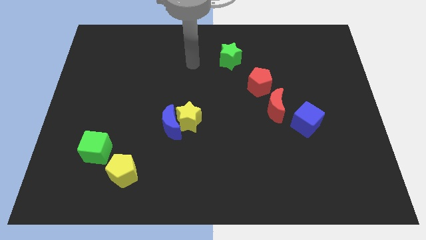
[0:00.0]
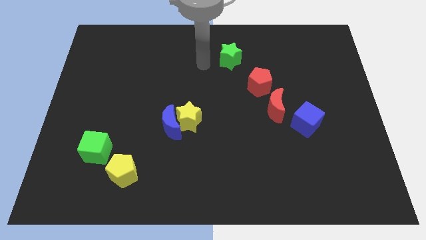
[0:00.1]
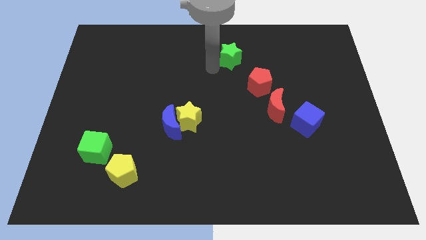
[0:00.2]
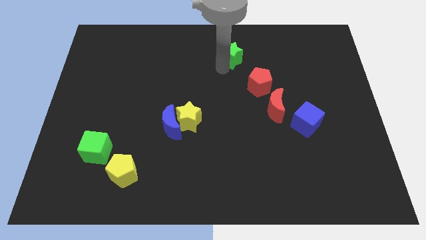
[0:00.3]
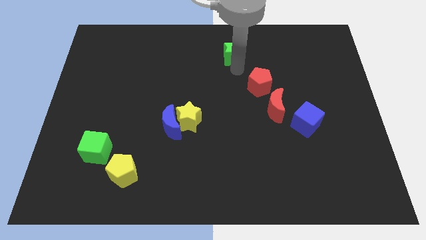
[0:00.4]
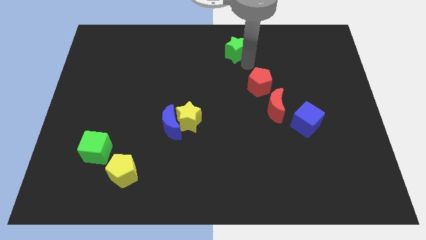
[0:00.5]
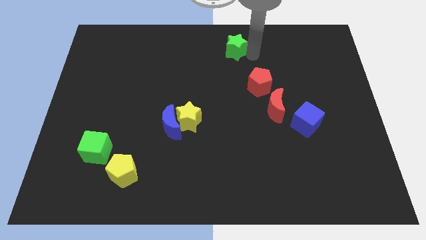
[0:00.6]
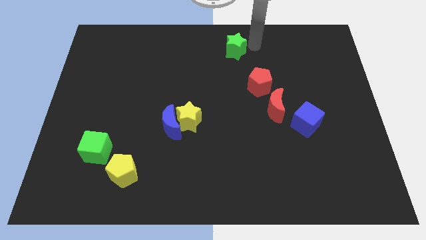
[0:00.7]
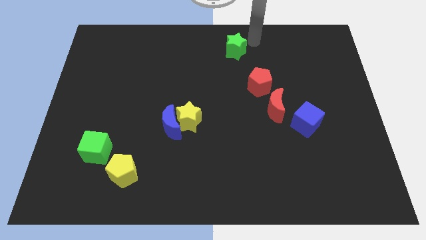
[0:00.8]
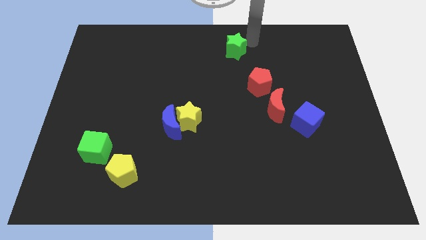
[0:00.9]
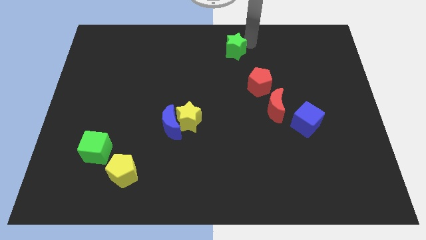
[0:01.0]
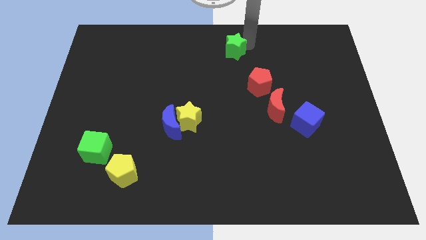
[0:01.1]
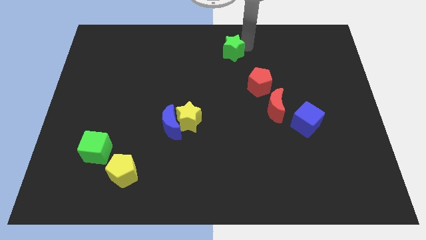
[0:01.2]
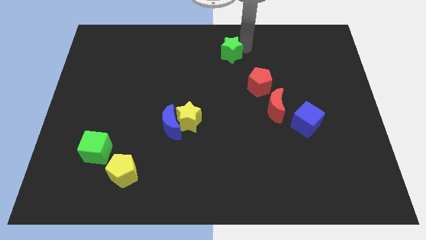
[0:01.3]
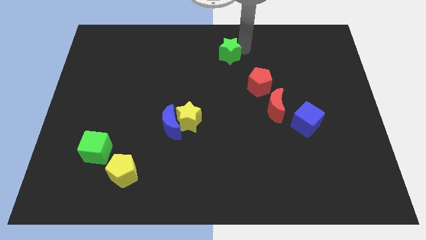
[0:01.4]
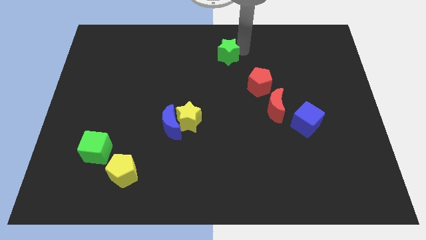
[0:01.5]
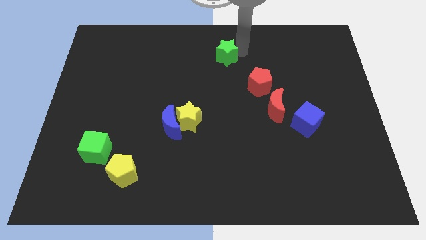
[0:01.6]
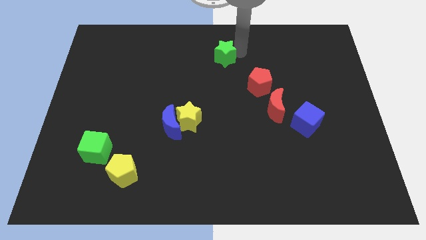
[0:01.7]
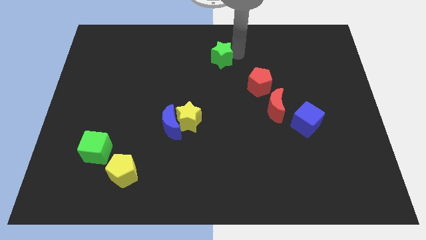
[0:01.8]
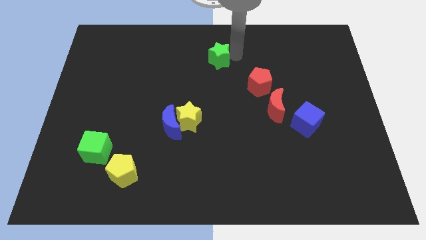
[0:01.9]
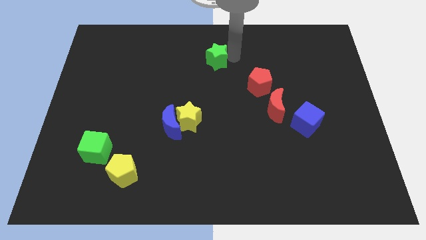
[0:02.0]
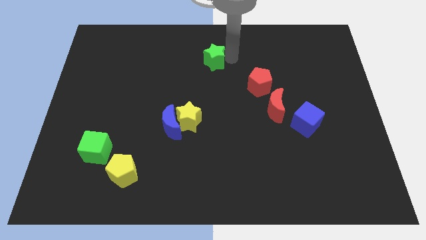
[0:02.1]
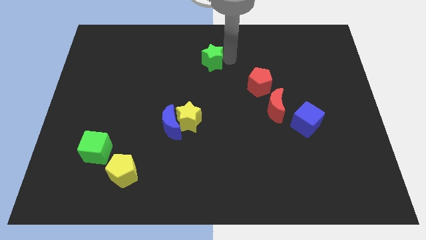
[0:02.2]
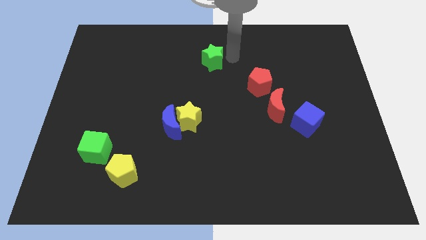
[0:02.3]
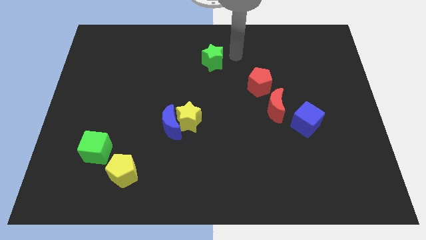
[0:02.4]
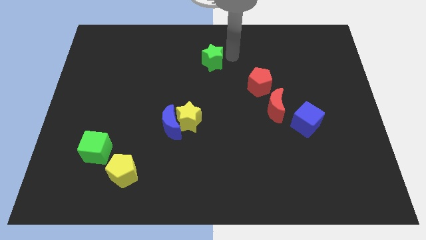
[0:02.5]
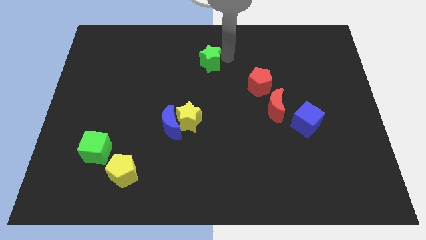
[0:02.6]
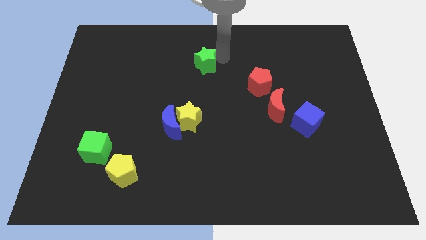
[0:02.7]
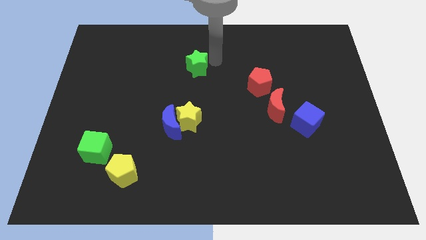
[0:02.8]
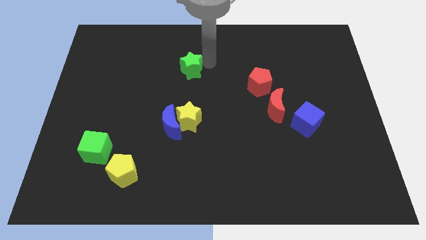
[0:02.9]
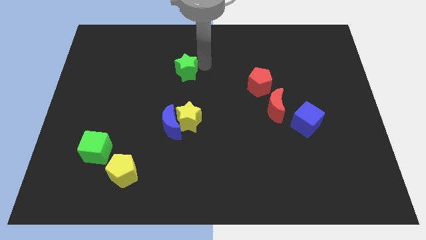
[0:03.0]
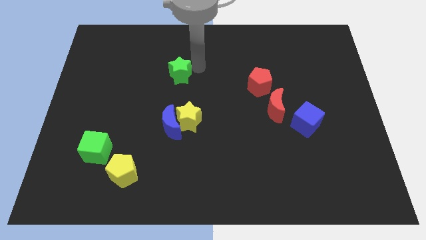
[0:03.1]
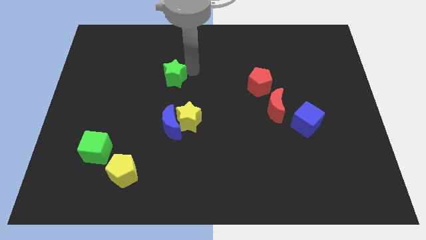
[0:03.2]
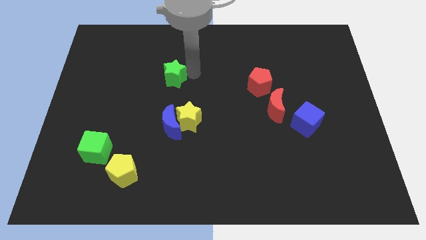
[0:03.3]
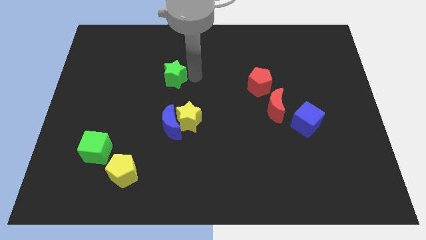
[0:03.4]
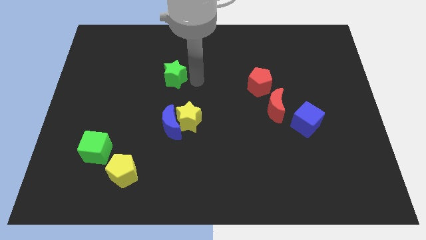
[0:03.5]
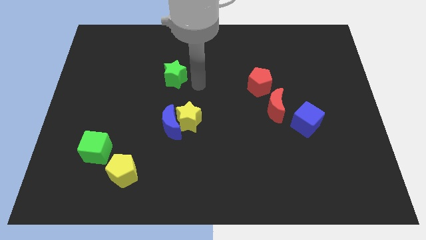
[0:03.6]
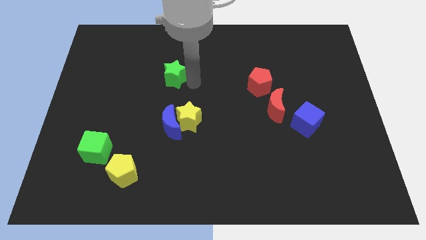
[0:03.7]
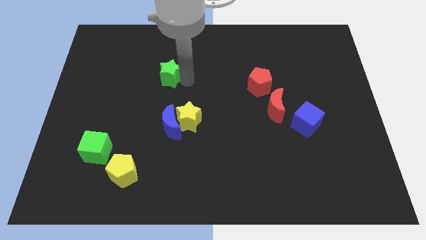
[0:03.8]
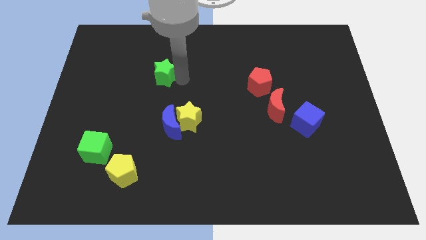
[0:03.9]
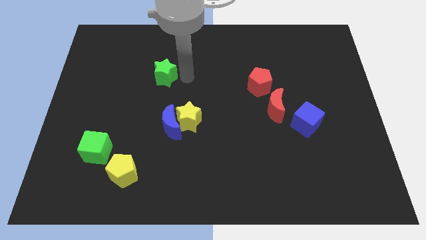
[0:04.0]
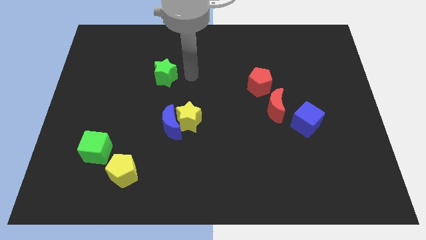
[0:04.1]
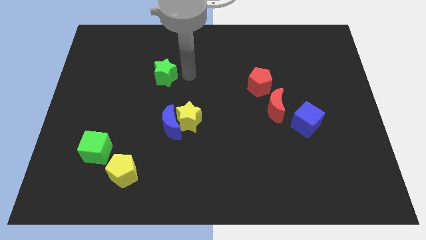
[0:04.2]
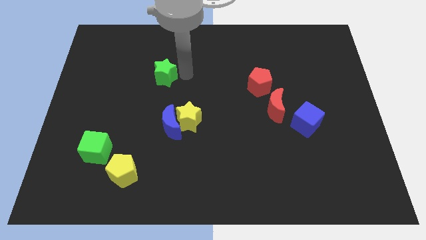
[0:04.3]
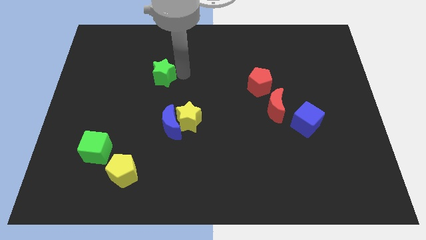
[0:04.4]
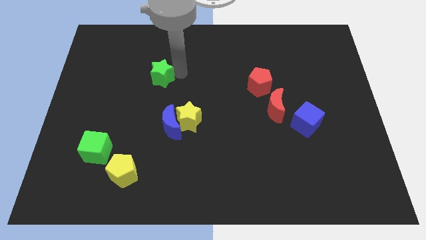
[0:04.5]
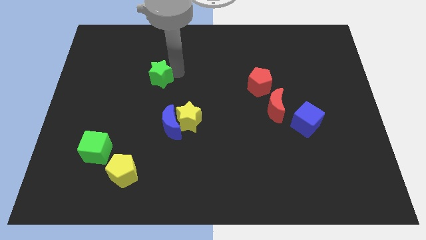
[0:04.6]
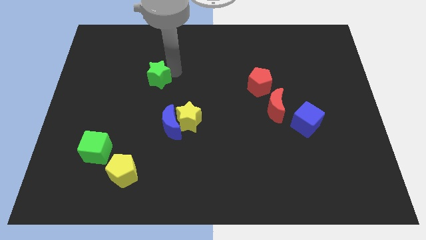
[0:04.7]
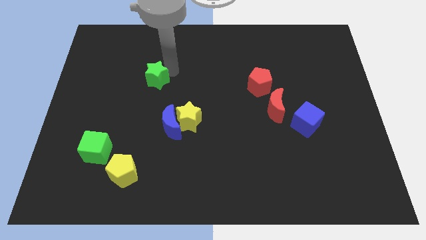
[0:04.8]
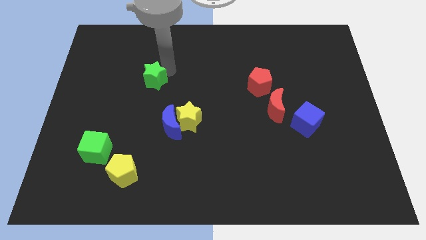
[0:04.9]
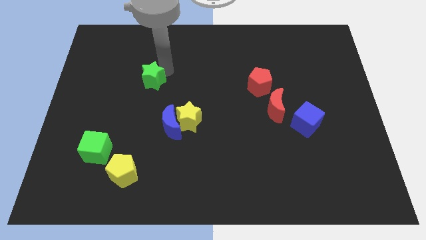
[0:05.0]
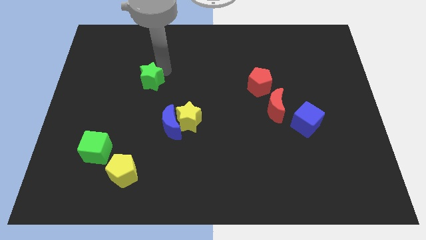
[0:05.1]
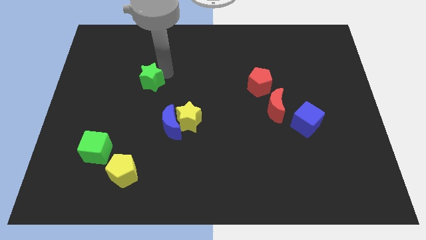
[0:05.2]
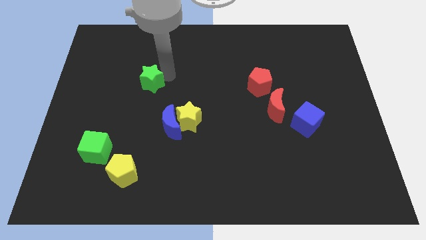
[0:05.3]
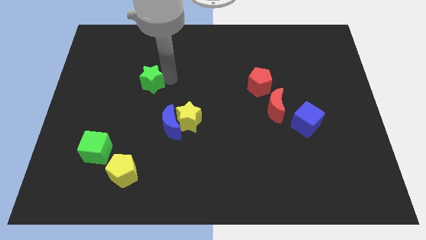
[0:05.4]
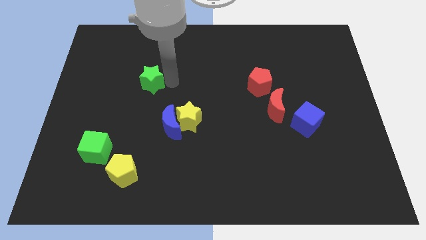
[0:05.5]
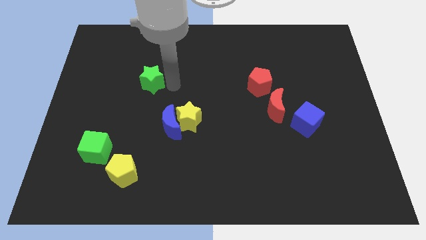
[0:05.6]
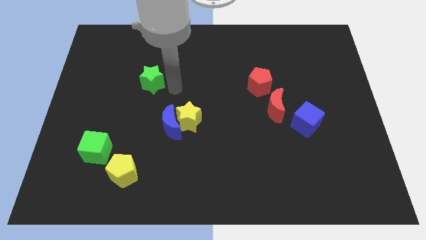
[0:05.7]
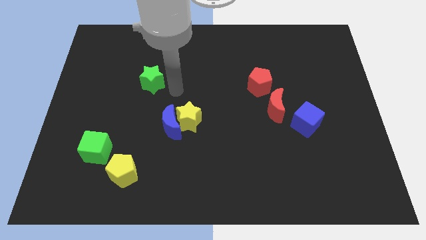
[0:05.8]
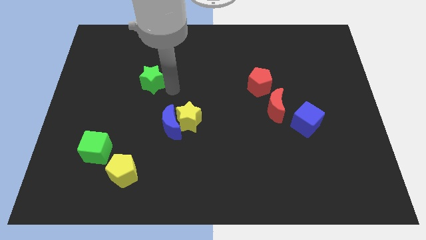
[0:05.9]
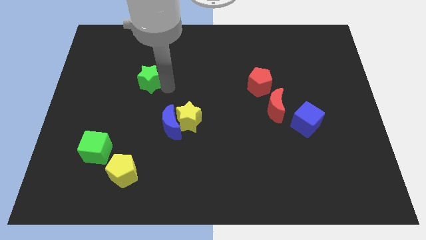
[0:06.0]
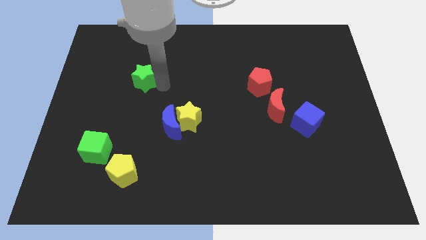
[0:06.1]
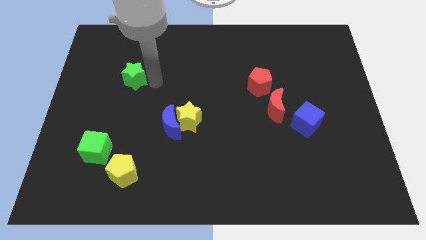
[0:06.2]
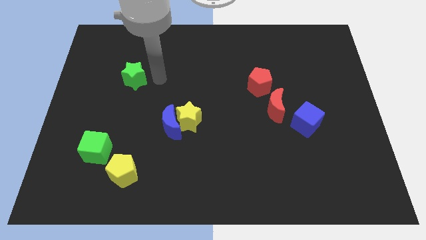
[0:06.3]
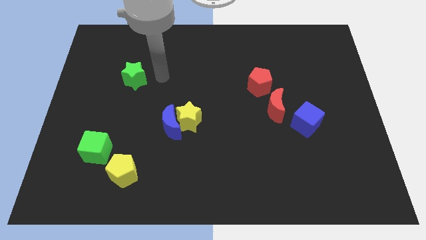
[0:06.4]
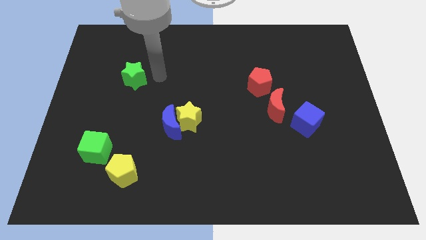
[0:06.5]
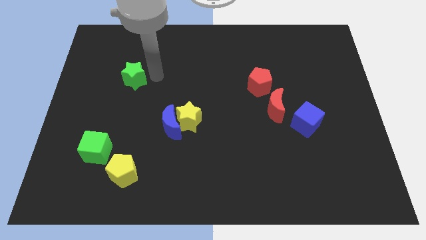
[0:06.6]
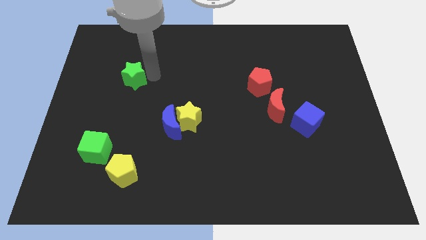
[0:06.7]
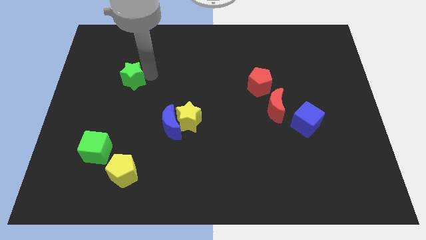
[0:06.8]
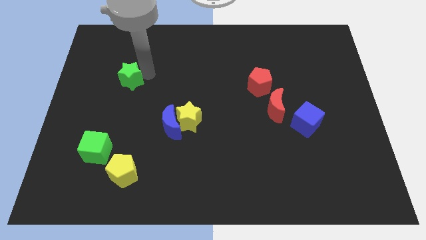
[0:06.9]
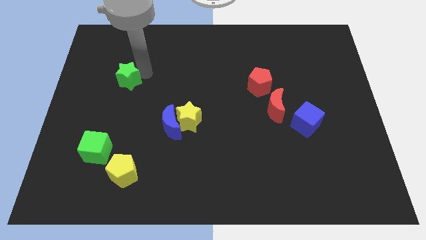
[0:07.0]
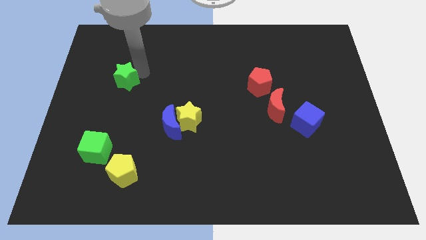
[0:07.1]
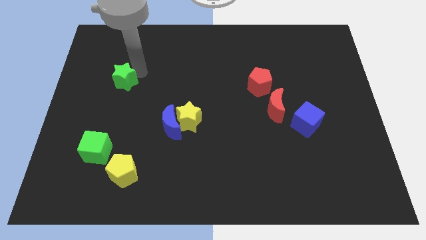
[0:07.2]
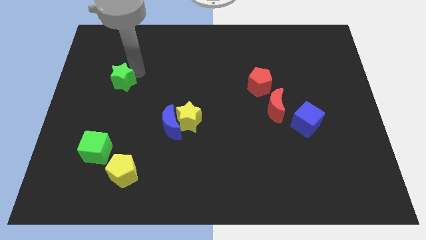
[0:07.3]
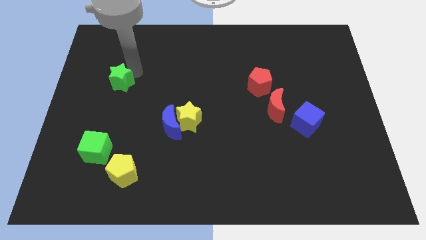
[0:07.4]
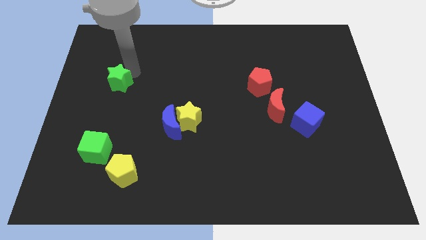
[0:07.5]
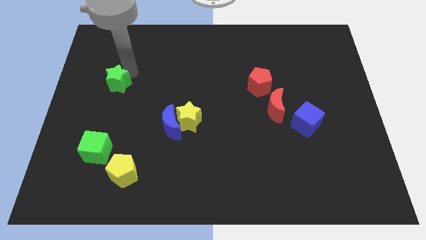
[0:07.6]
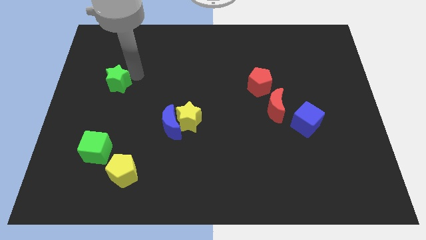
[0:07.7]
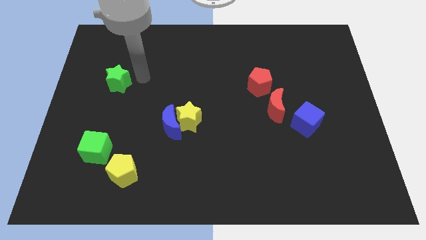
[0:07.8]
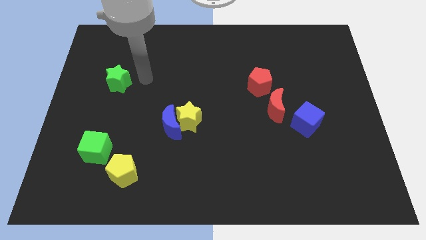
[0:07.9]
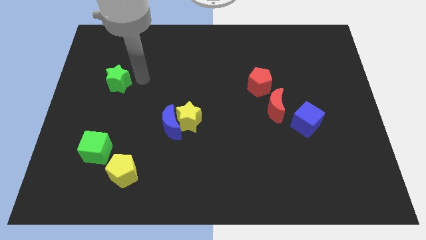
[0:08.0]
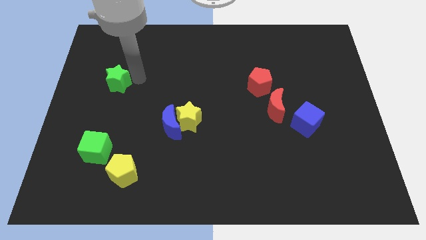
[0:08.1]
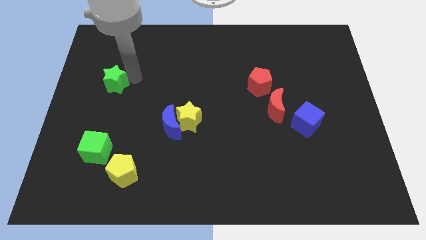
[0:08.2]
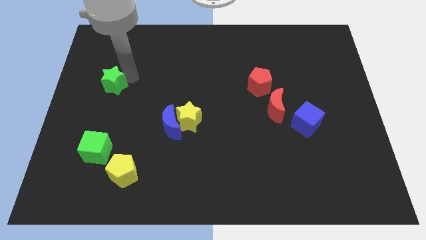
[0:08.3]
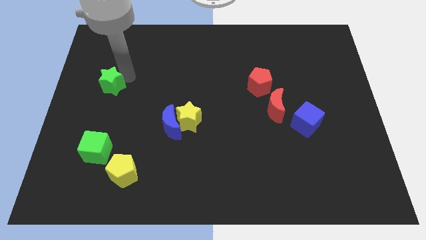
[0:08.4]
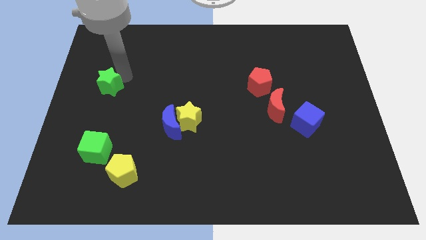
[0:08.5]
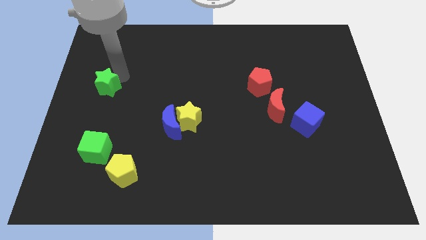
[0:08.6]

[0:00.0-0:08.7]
move the green star to the left side
